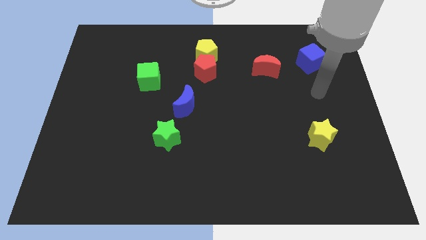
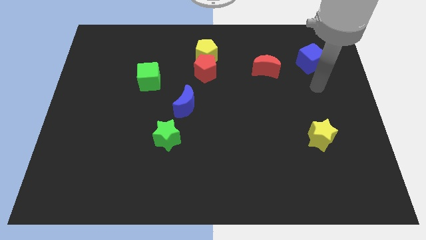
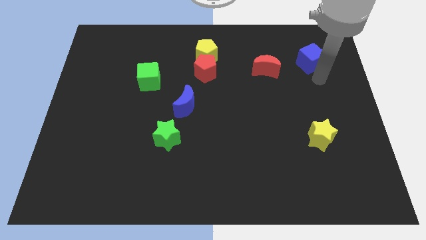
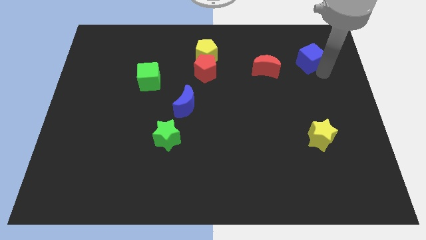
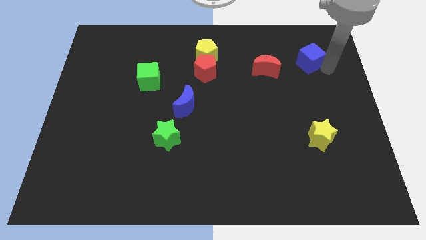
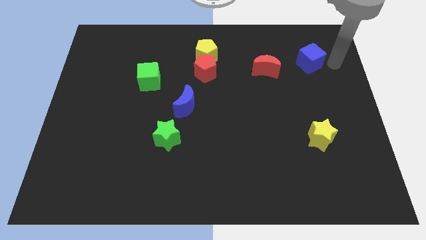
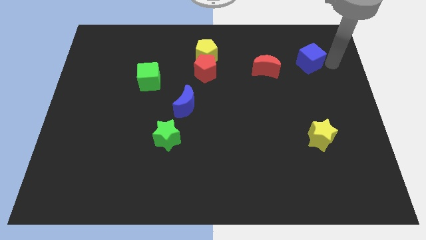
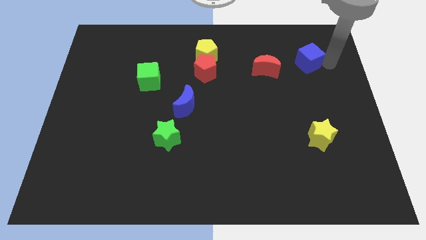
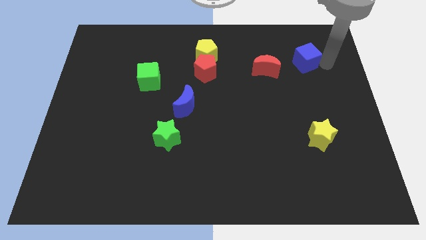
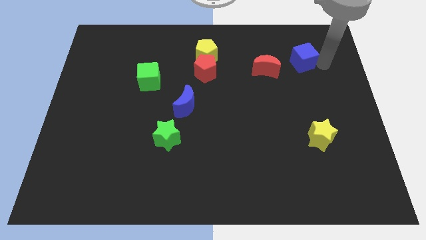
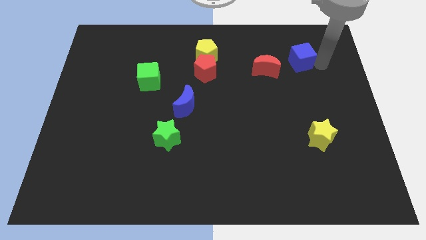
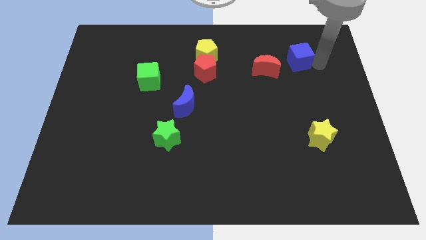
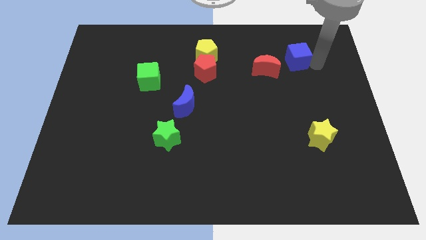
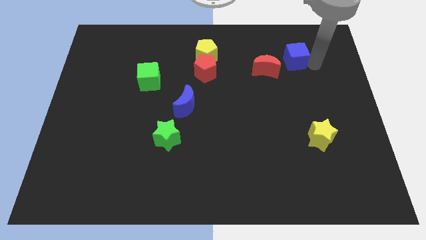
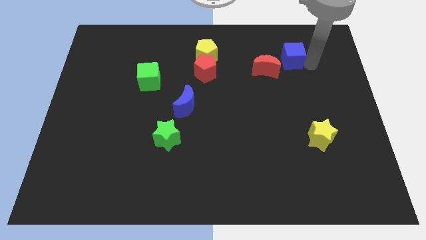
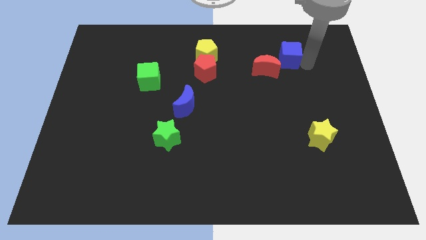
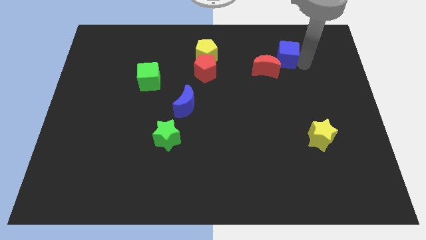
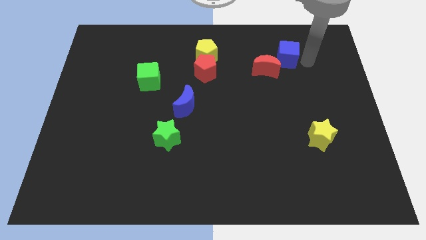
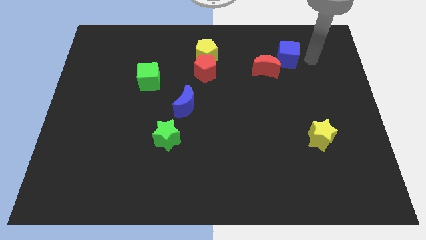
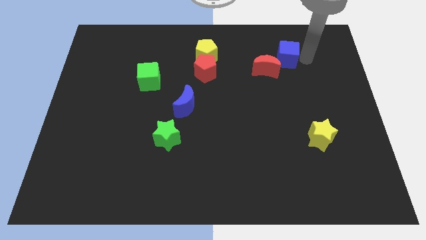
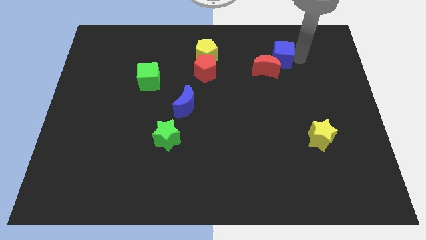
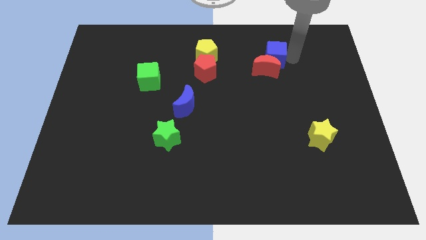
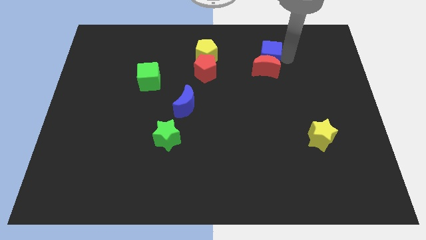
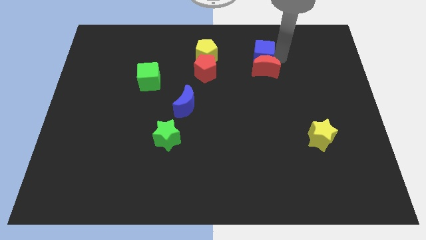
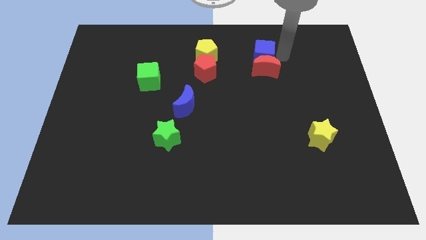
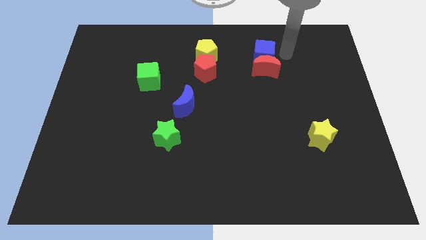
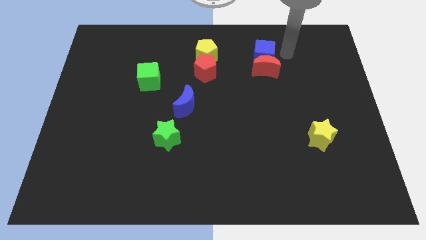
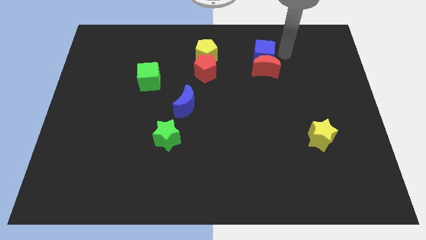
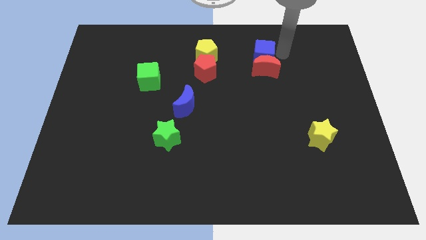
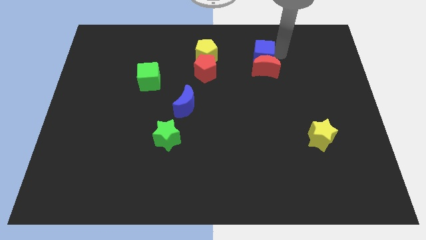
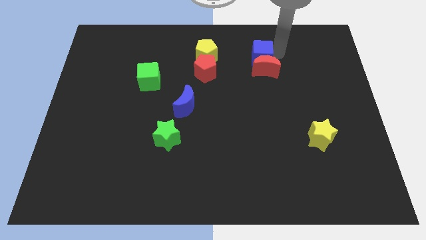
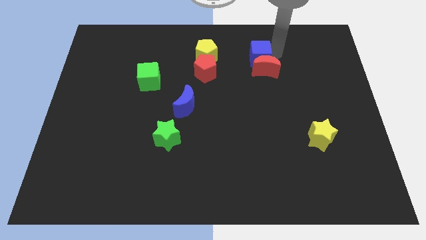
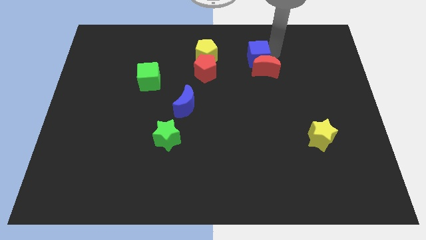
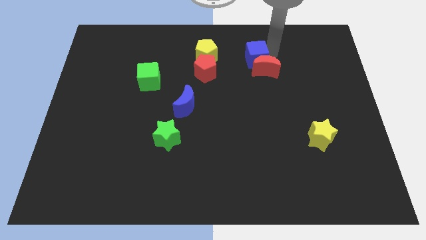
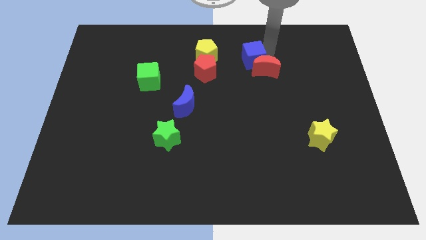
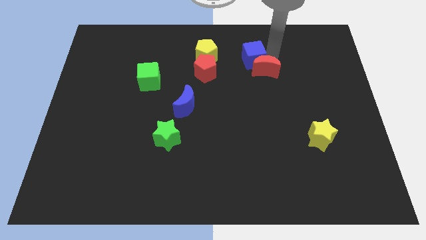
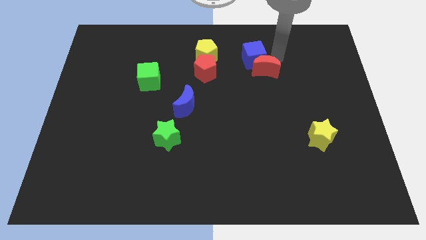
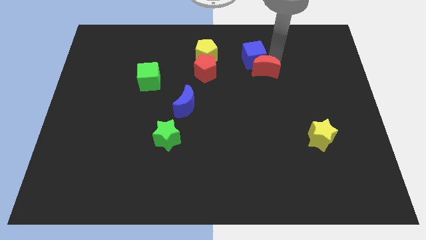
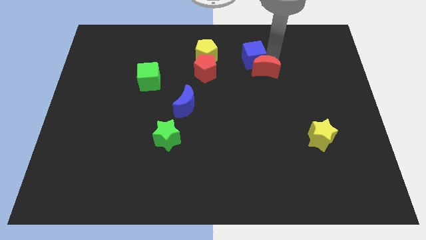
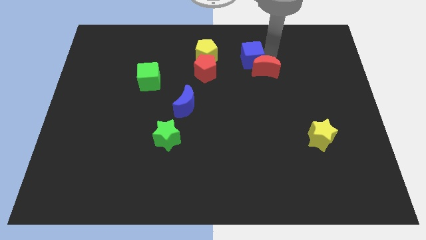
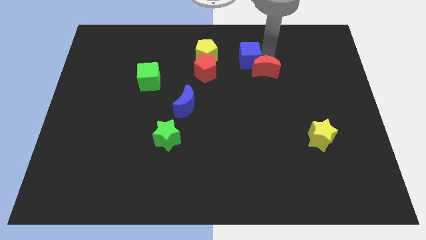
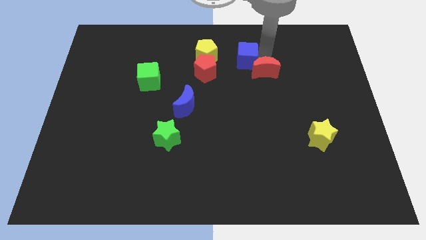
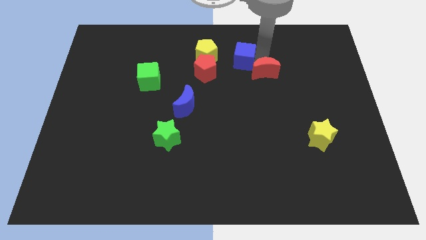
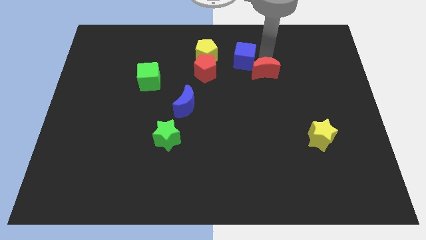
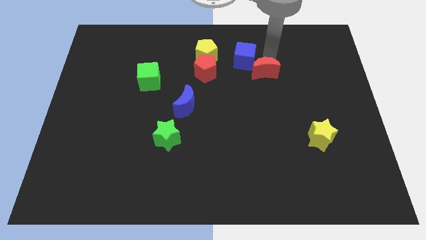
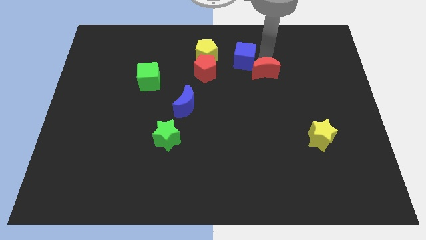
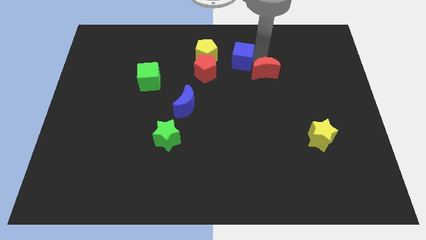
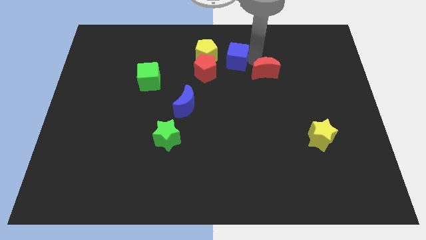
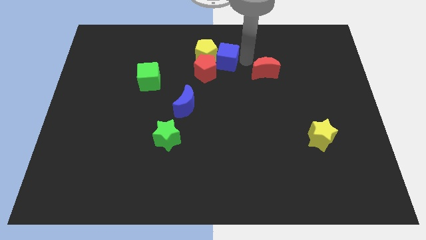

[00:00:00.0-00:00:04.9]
push the blue cube next to the yellow pentagon

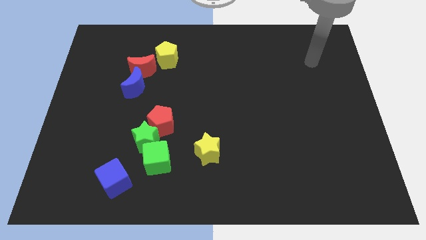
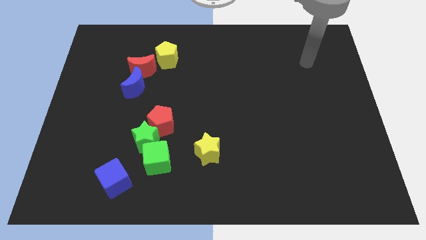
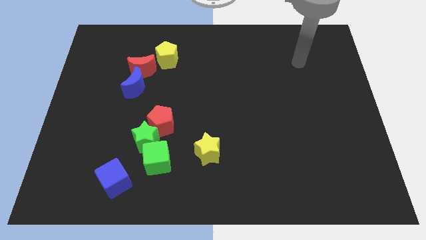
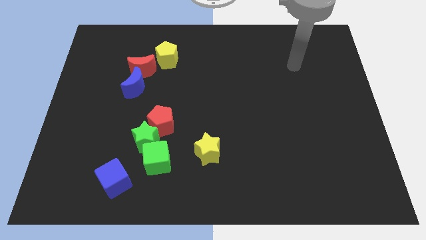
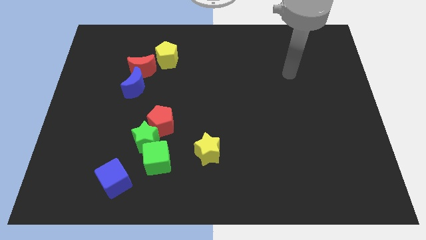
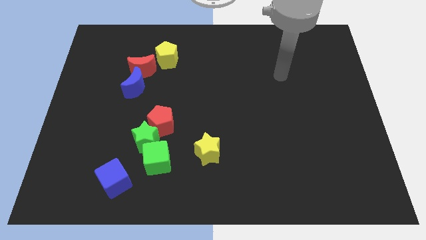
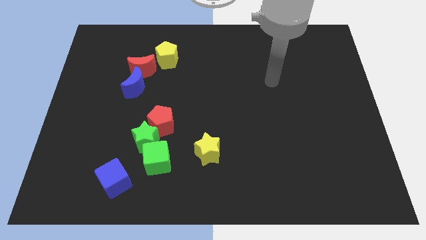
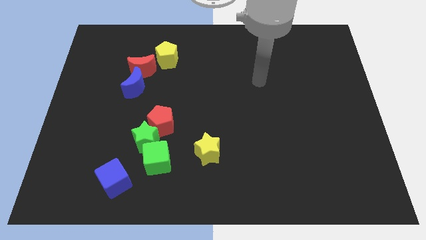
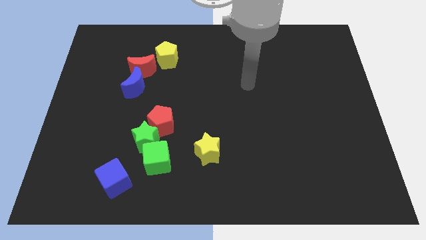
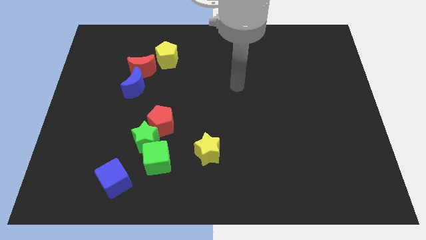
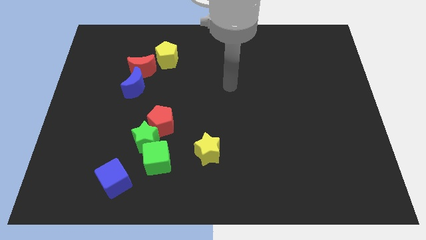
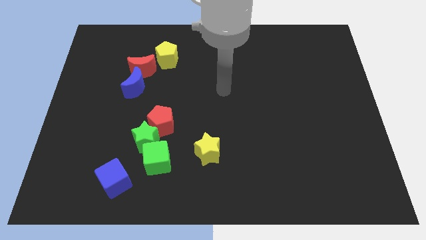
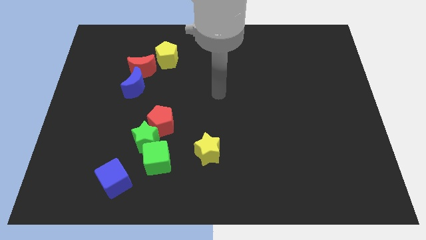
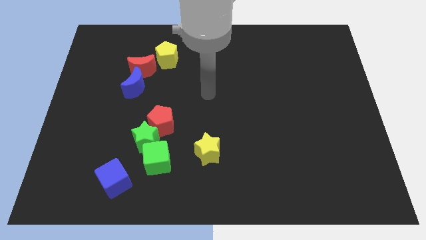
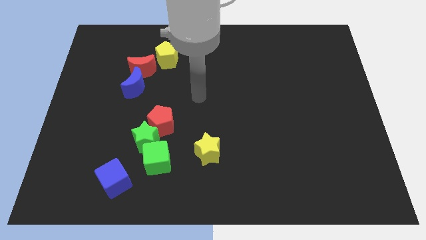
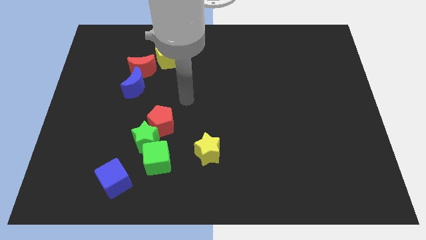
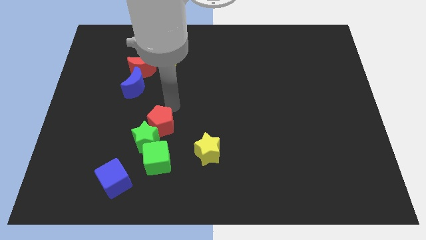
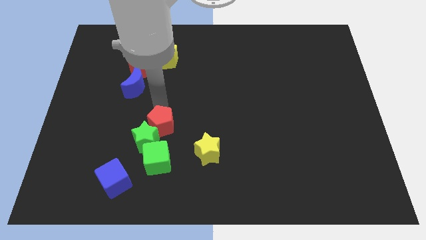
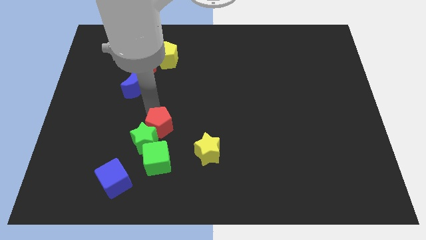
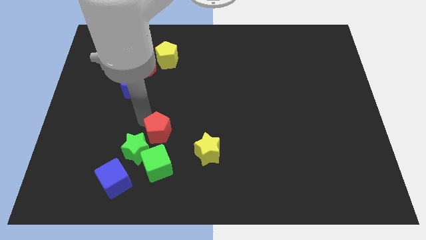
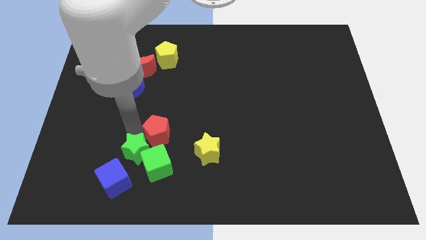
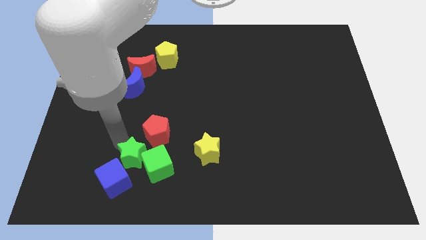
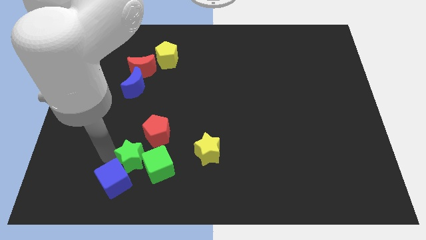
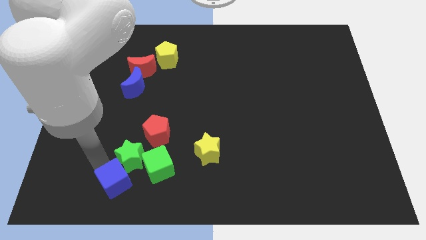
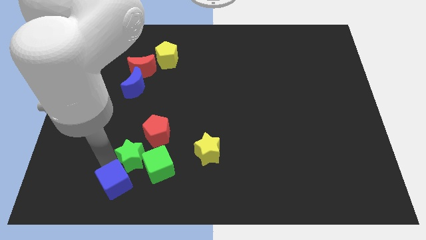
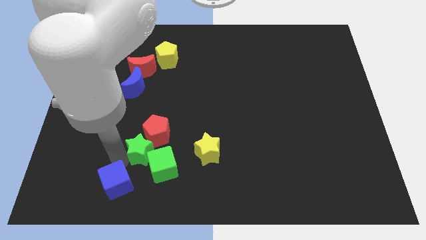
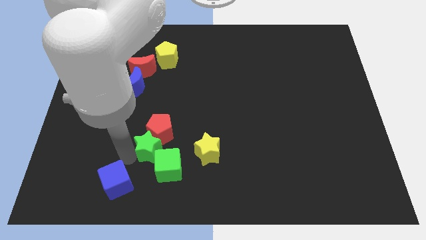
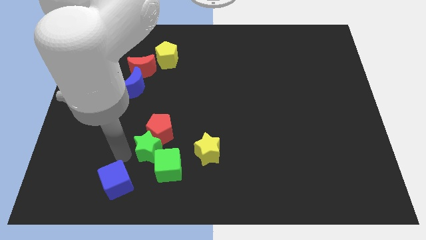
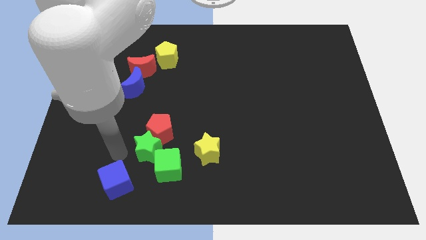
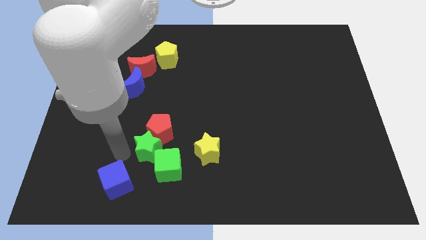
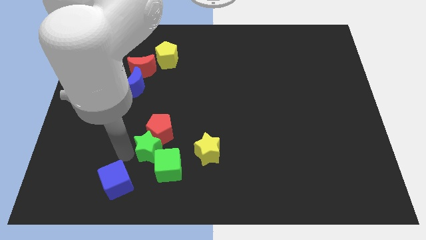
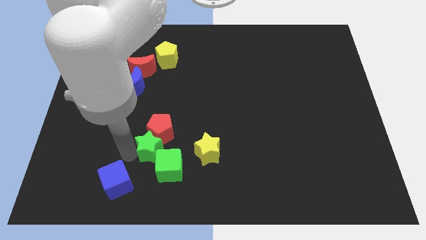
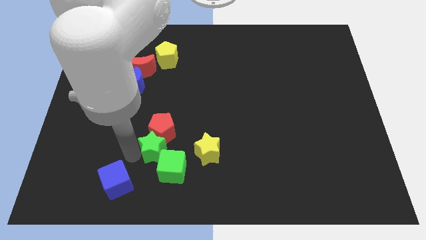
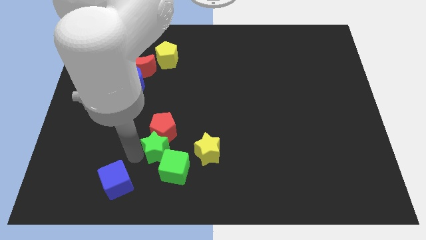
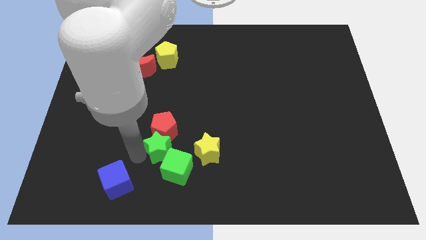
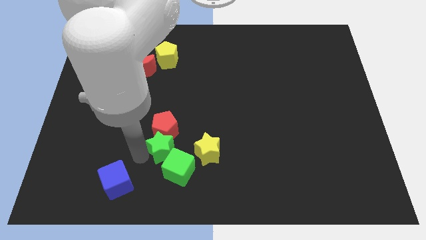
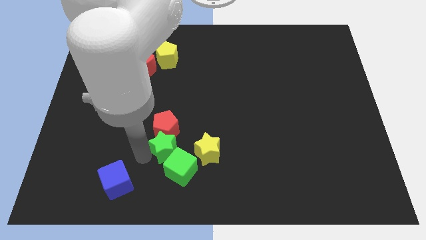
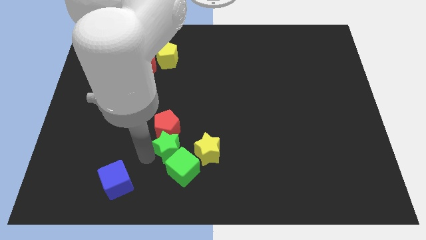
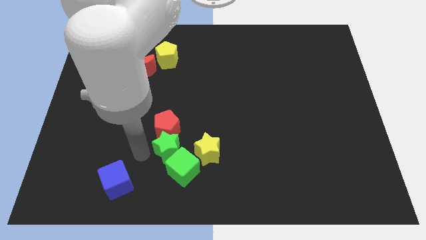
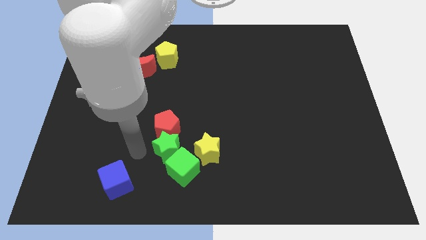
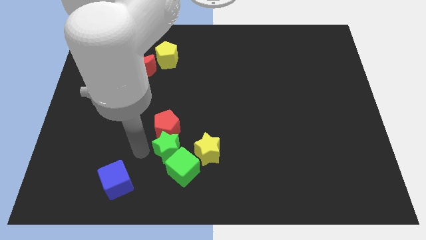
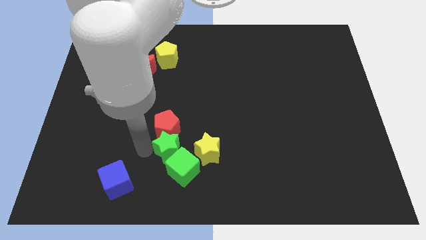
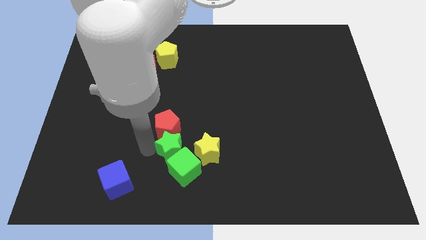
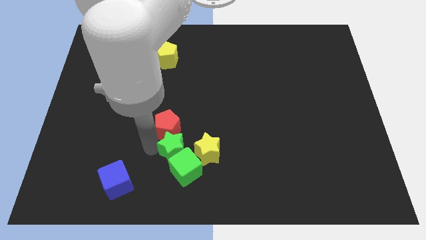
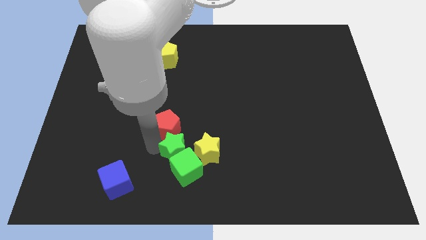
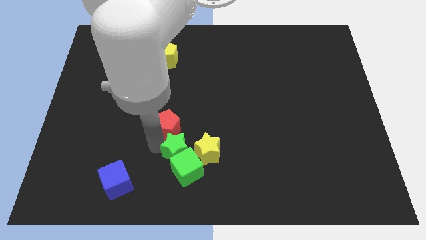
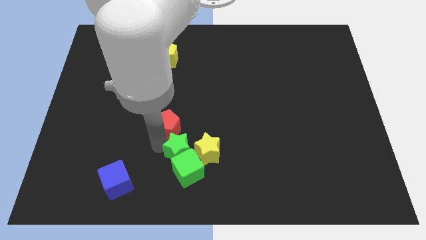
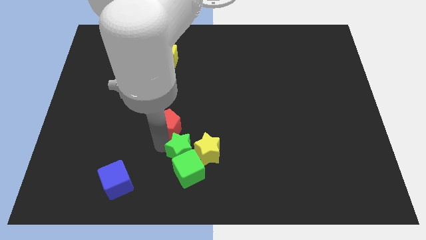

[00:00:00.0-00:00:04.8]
slide the green star close to the yellow star
